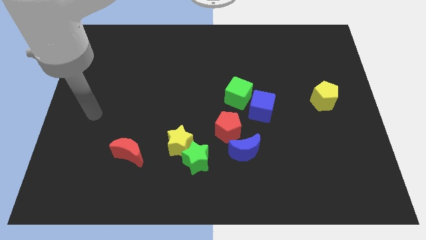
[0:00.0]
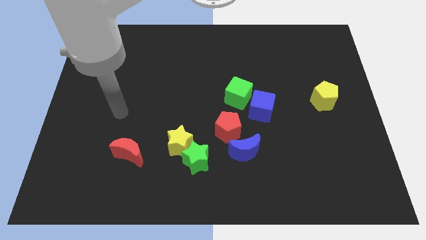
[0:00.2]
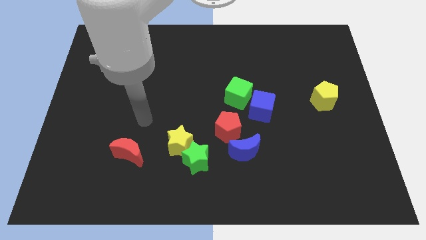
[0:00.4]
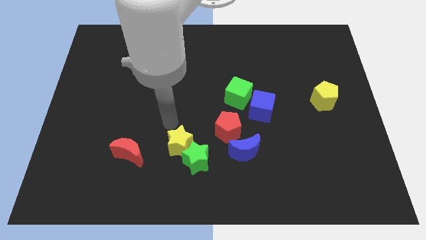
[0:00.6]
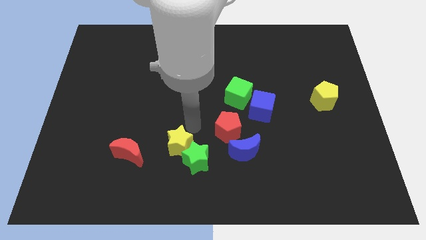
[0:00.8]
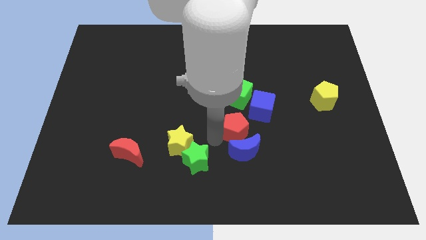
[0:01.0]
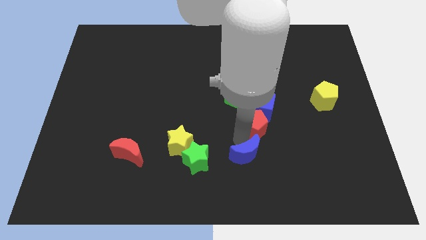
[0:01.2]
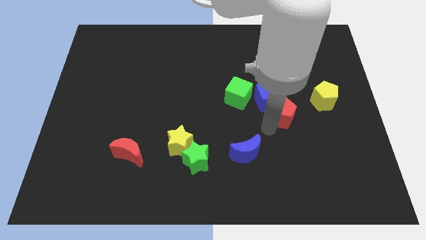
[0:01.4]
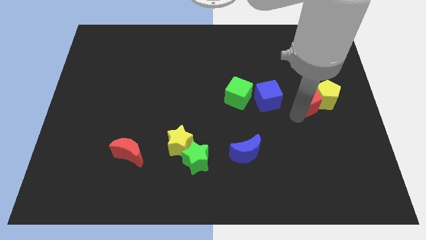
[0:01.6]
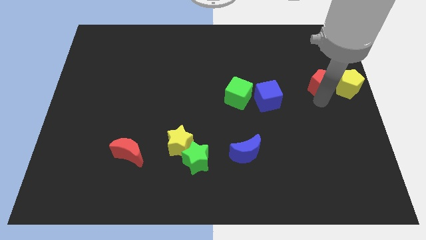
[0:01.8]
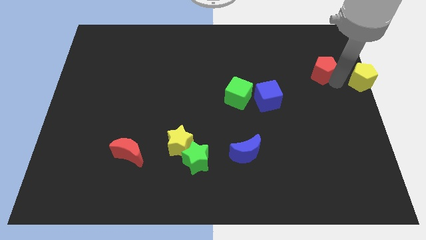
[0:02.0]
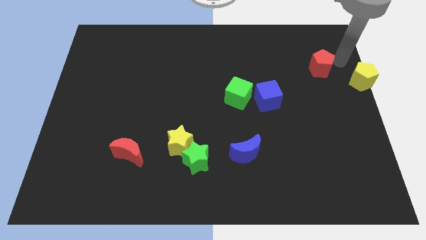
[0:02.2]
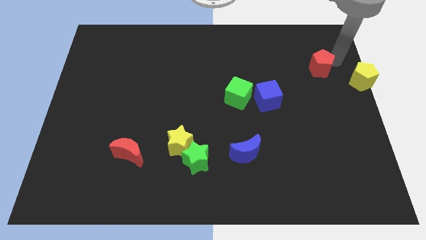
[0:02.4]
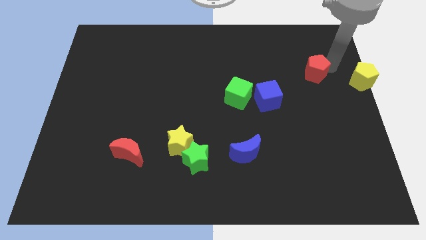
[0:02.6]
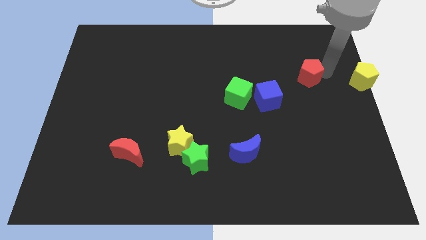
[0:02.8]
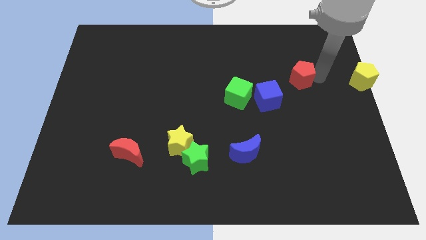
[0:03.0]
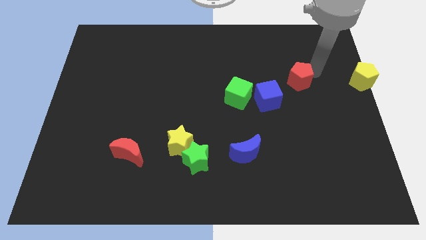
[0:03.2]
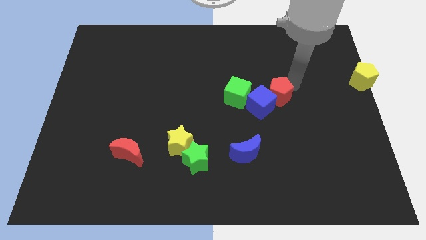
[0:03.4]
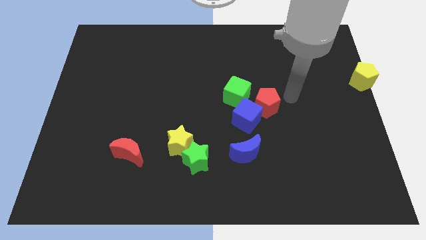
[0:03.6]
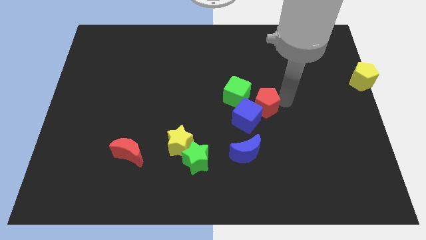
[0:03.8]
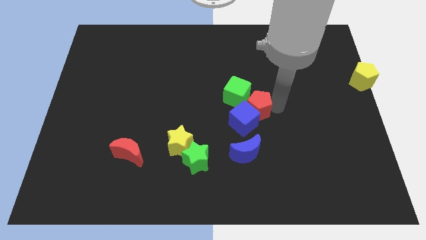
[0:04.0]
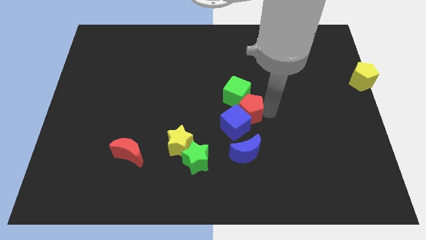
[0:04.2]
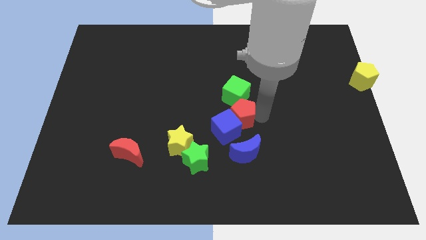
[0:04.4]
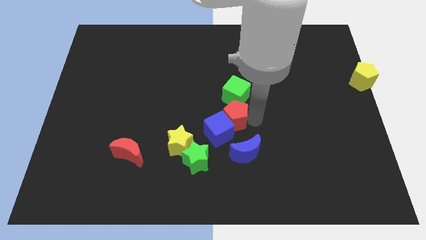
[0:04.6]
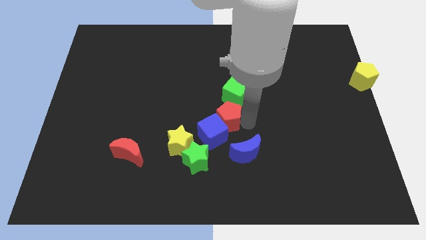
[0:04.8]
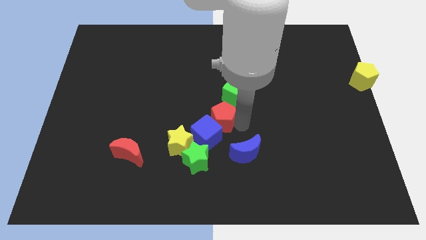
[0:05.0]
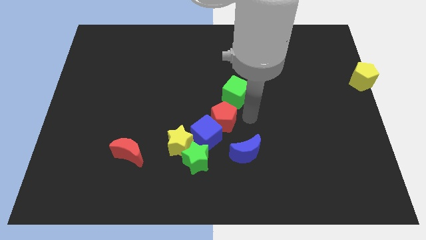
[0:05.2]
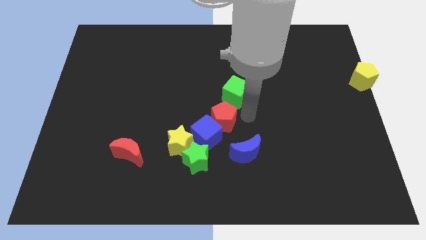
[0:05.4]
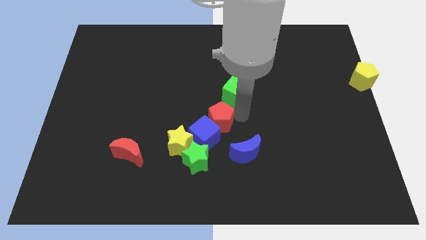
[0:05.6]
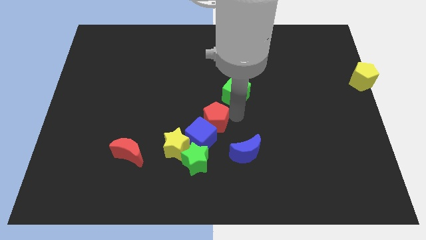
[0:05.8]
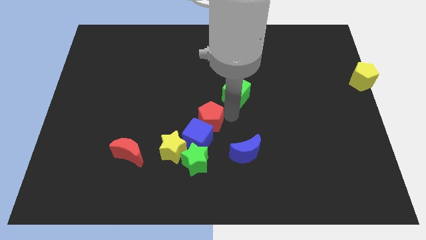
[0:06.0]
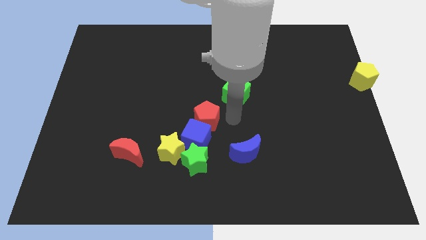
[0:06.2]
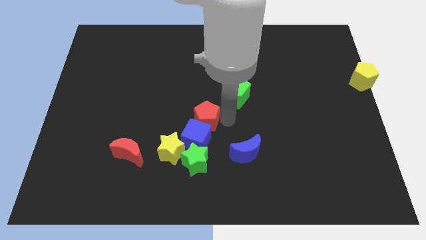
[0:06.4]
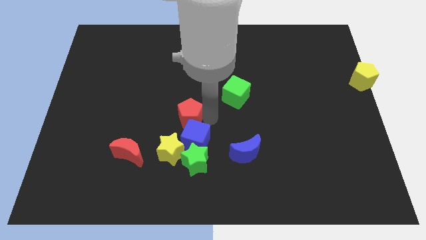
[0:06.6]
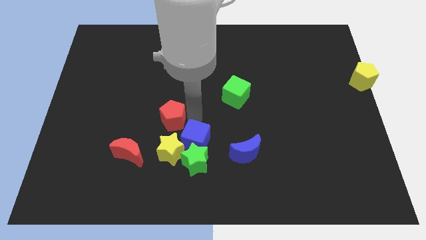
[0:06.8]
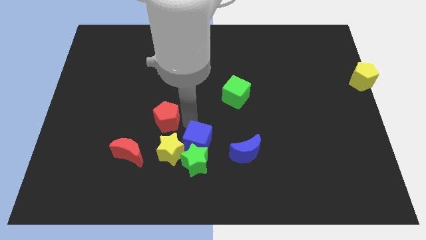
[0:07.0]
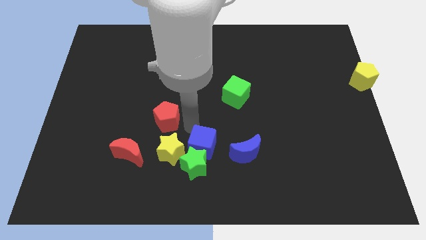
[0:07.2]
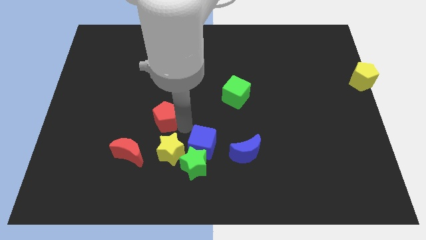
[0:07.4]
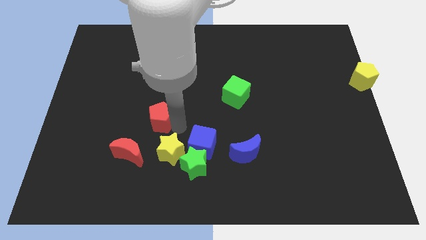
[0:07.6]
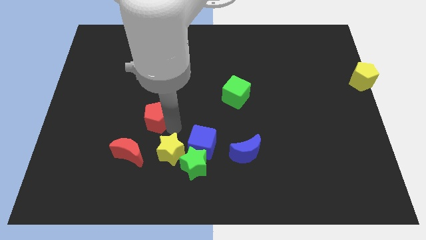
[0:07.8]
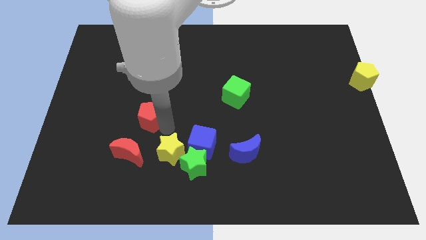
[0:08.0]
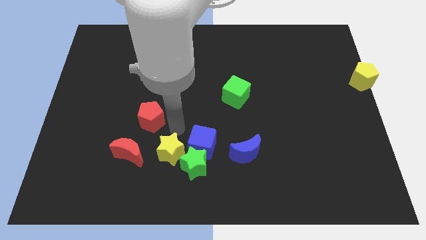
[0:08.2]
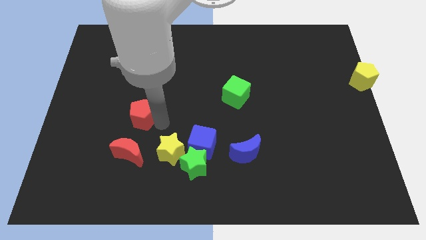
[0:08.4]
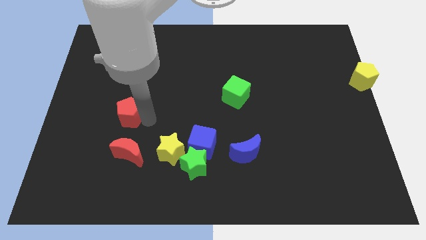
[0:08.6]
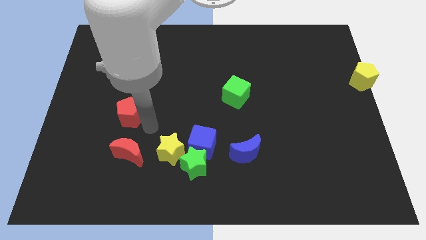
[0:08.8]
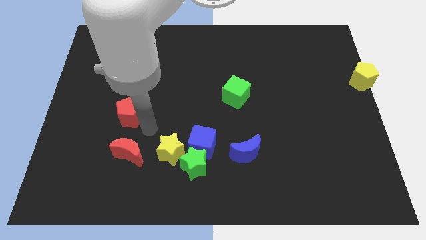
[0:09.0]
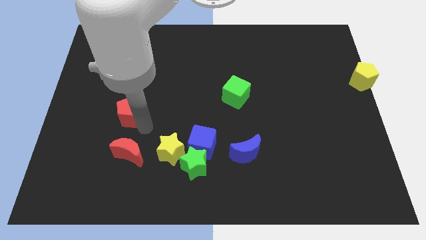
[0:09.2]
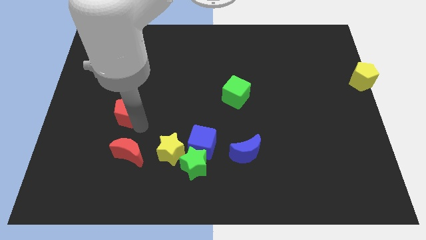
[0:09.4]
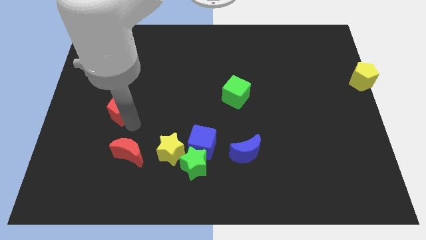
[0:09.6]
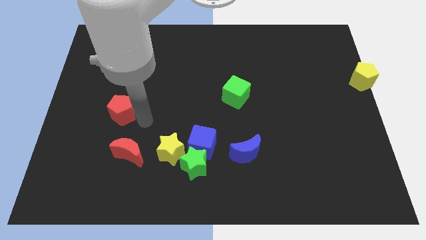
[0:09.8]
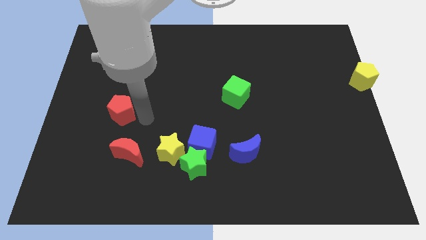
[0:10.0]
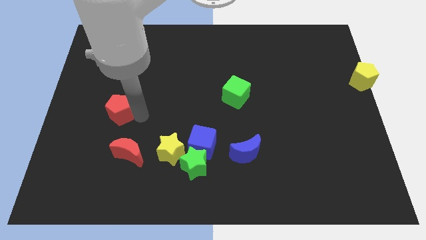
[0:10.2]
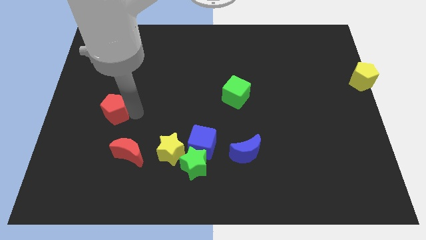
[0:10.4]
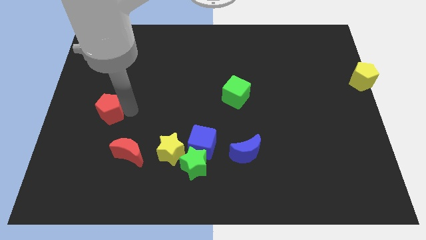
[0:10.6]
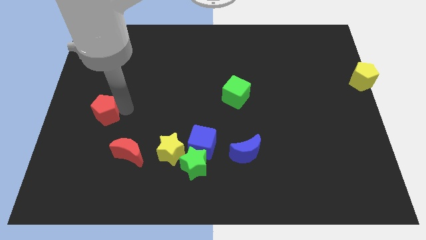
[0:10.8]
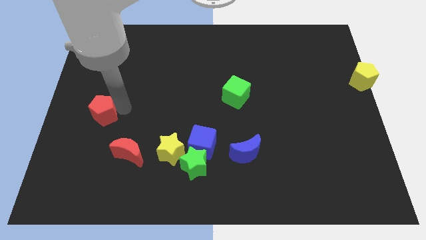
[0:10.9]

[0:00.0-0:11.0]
slide the red pentagon to the center left

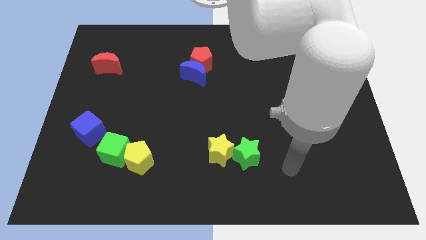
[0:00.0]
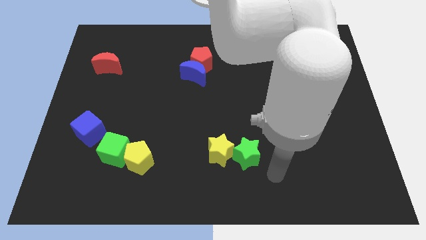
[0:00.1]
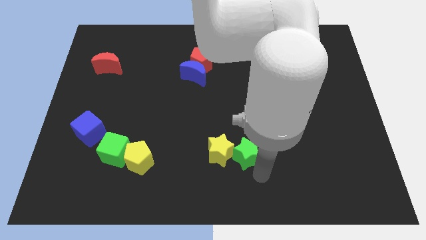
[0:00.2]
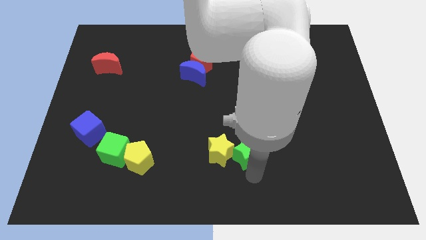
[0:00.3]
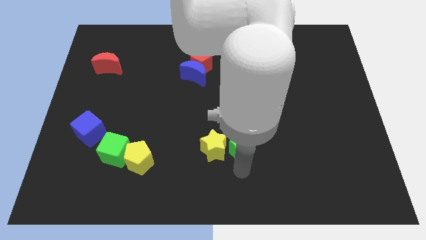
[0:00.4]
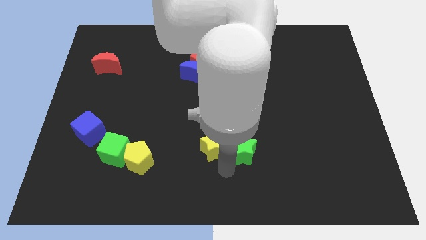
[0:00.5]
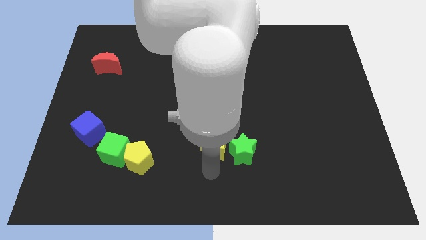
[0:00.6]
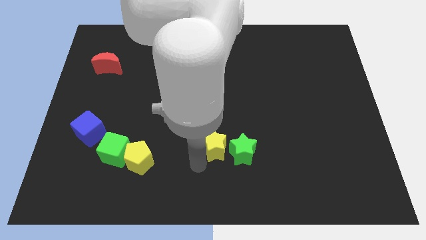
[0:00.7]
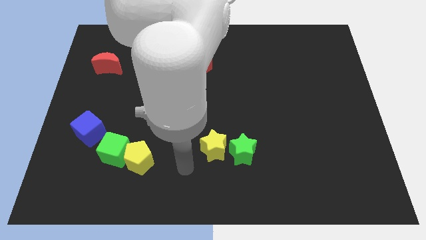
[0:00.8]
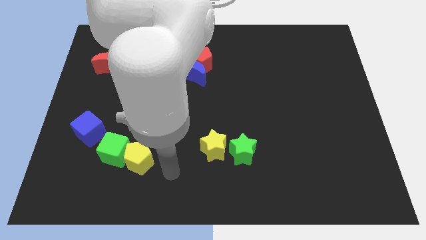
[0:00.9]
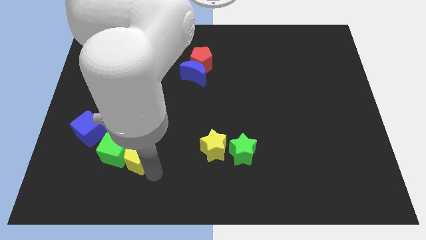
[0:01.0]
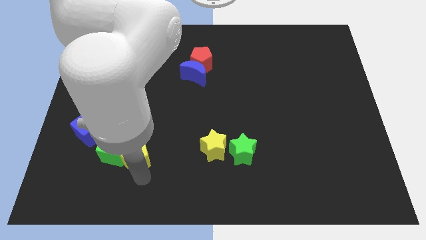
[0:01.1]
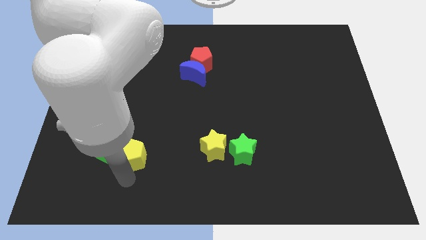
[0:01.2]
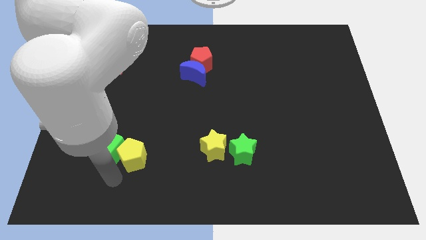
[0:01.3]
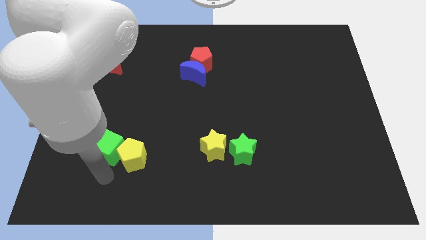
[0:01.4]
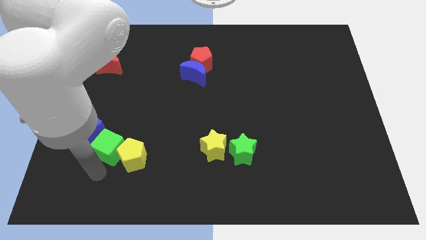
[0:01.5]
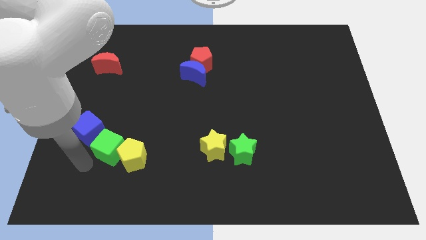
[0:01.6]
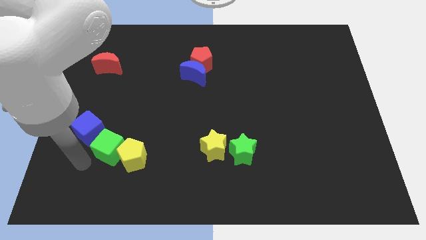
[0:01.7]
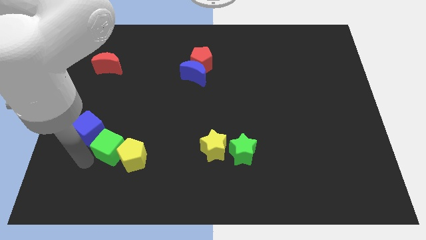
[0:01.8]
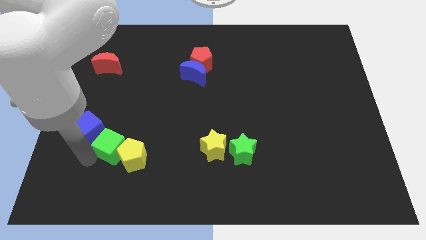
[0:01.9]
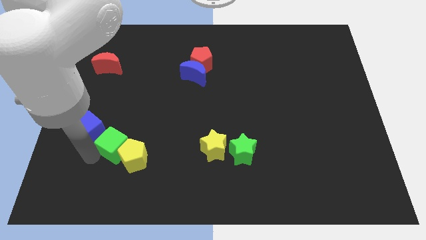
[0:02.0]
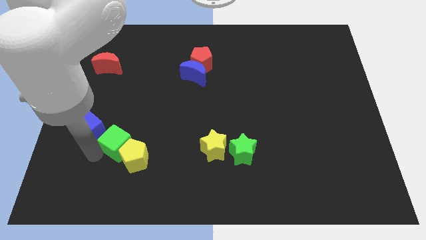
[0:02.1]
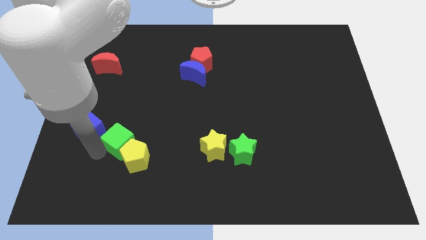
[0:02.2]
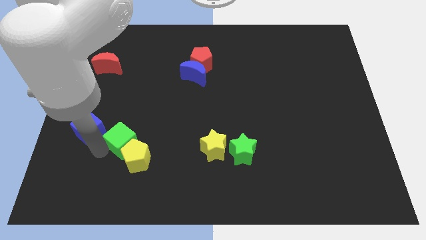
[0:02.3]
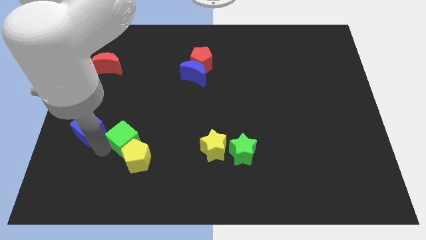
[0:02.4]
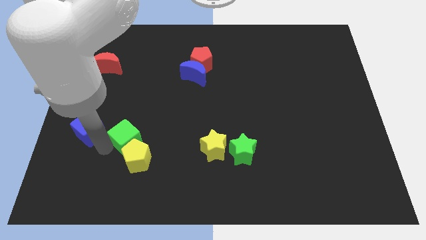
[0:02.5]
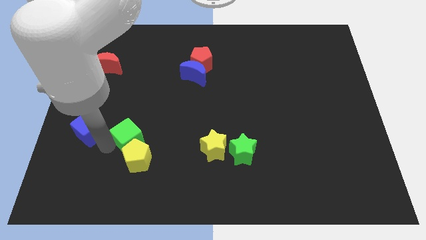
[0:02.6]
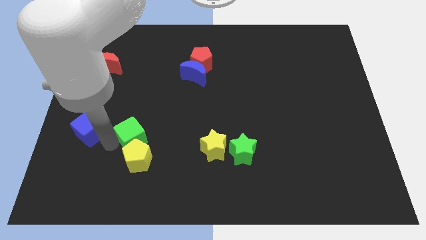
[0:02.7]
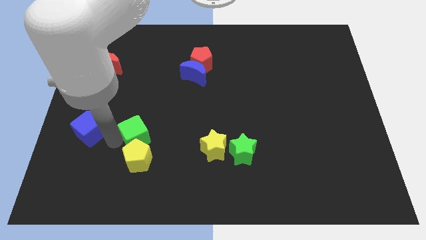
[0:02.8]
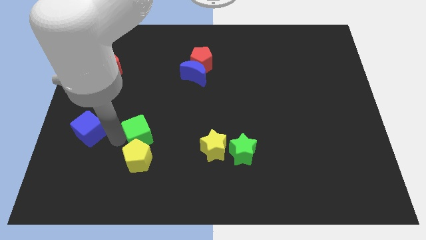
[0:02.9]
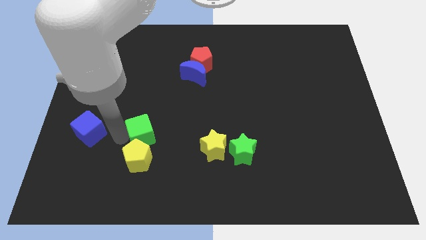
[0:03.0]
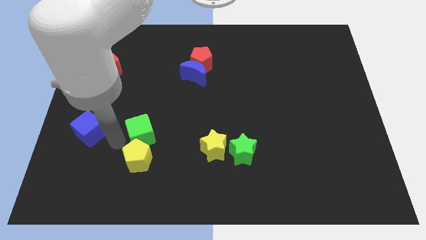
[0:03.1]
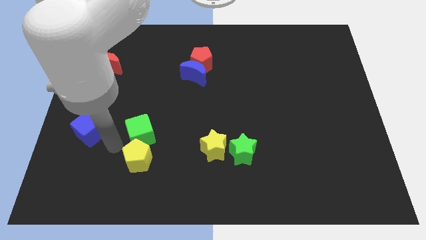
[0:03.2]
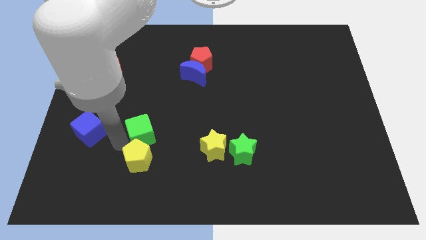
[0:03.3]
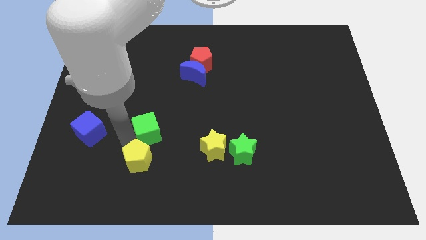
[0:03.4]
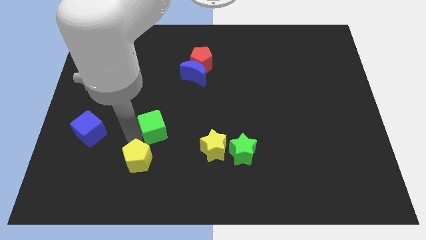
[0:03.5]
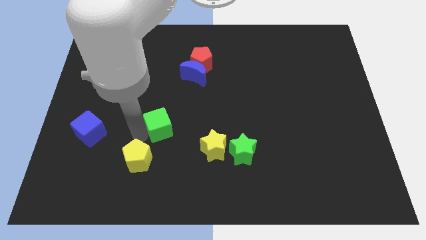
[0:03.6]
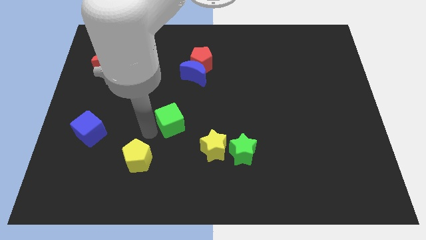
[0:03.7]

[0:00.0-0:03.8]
put the green cube to the center
